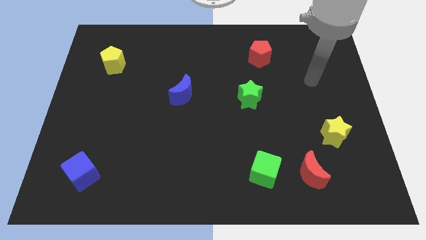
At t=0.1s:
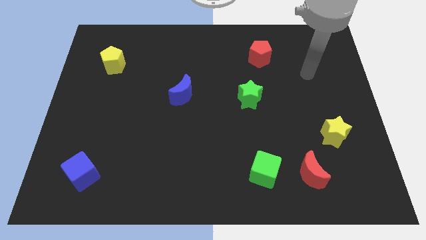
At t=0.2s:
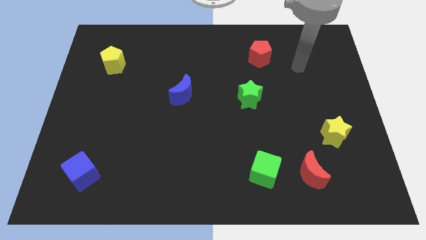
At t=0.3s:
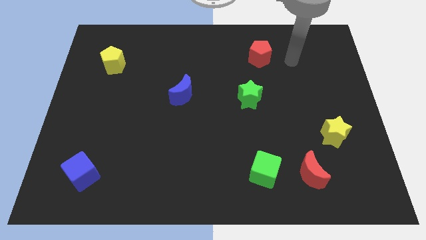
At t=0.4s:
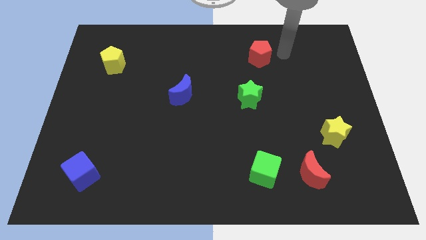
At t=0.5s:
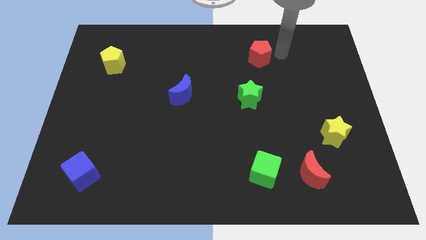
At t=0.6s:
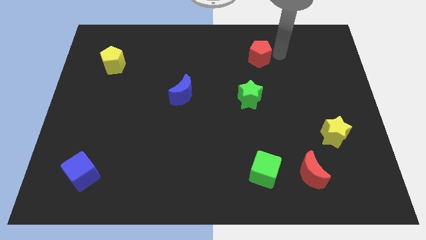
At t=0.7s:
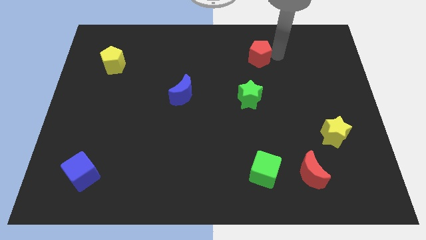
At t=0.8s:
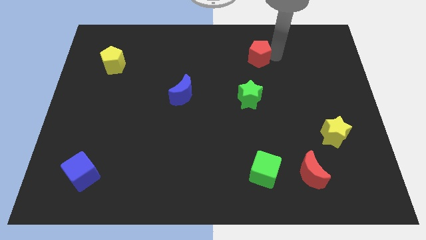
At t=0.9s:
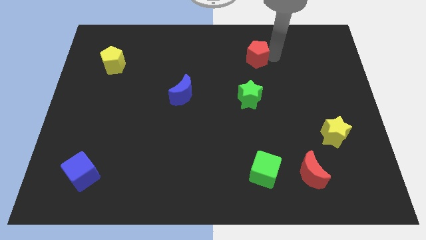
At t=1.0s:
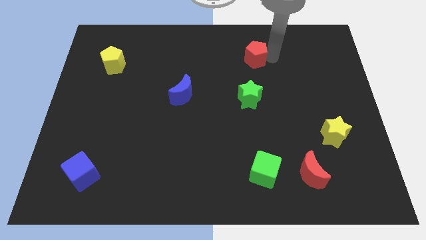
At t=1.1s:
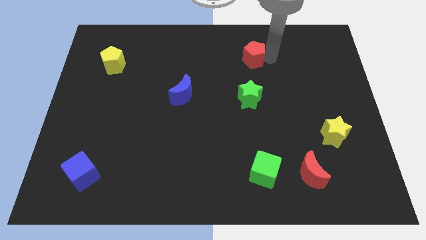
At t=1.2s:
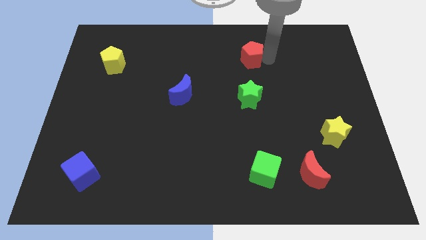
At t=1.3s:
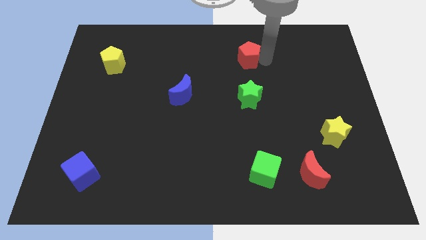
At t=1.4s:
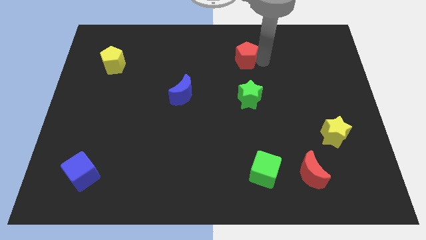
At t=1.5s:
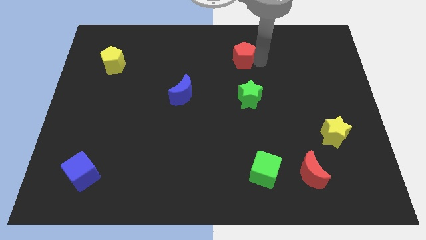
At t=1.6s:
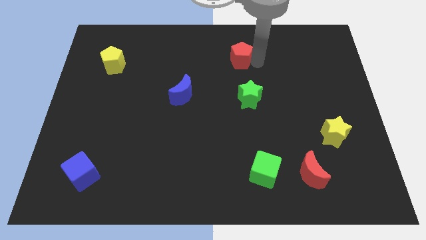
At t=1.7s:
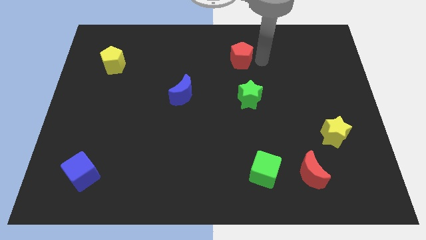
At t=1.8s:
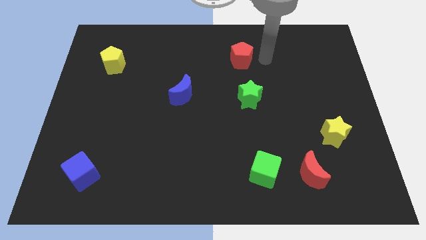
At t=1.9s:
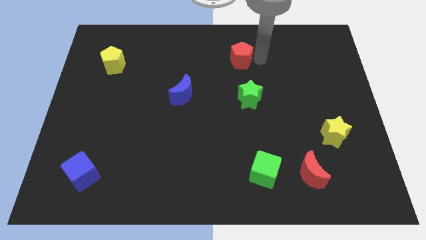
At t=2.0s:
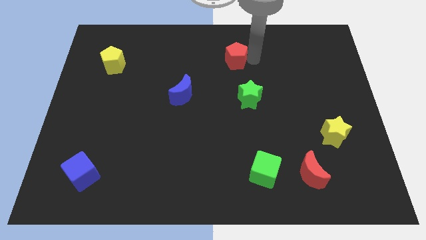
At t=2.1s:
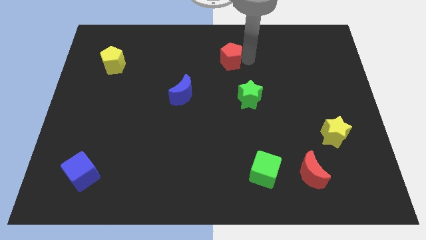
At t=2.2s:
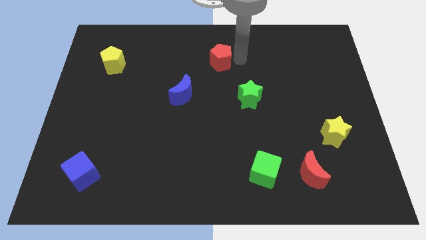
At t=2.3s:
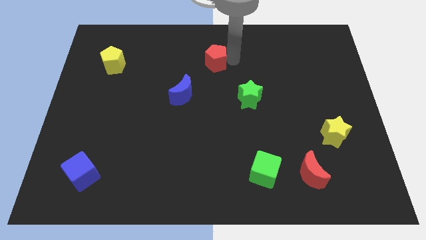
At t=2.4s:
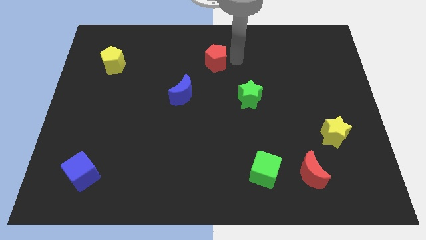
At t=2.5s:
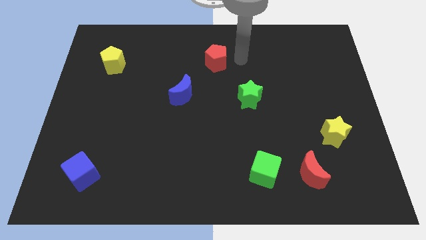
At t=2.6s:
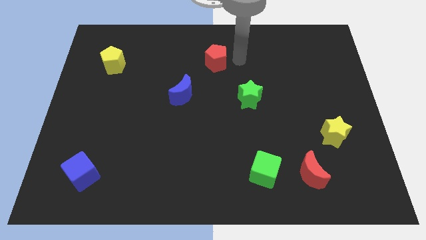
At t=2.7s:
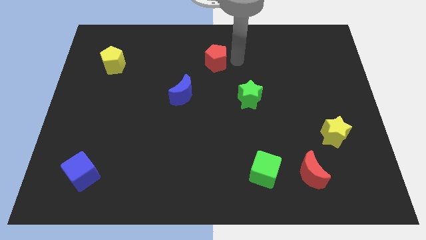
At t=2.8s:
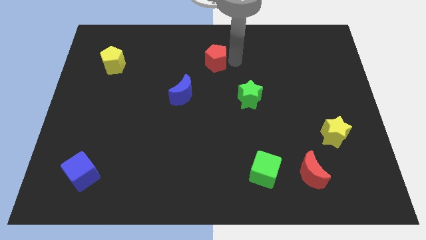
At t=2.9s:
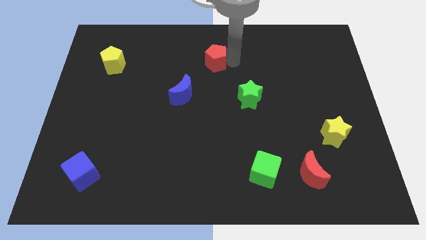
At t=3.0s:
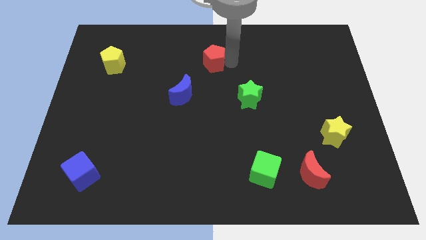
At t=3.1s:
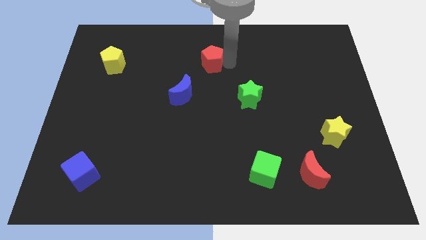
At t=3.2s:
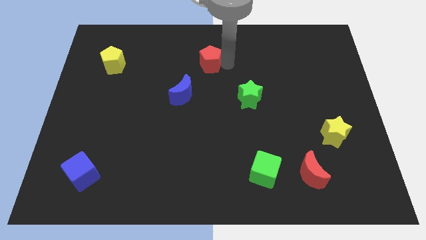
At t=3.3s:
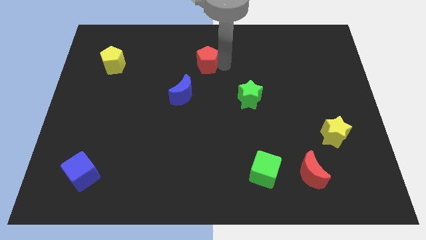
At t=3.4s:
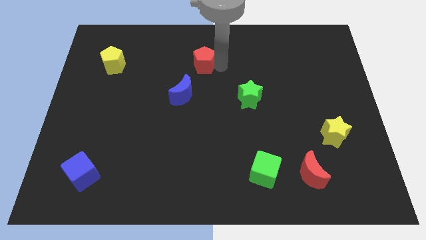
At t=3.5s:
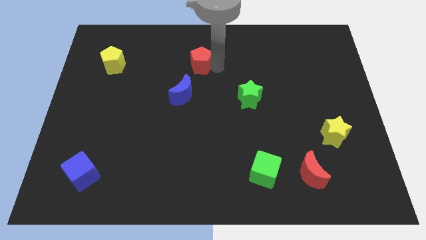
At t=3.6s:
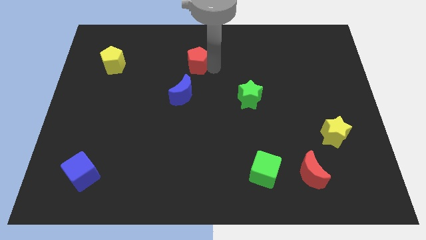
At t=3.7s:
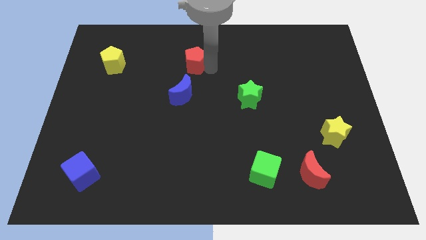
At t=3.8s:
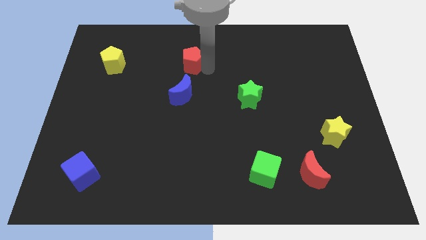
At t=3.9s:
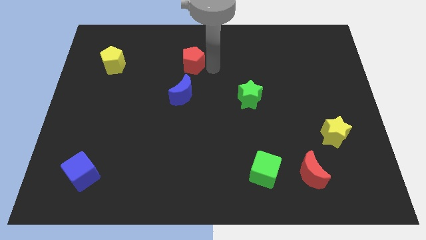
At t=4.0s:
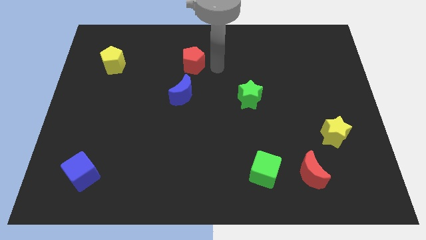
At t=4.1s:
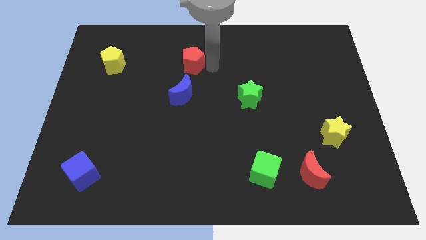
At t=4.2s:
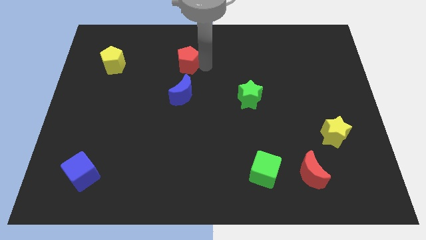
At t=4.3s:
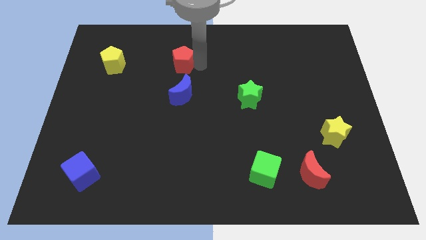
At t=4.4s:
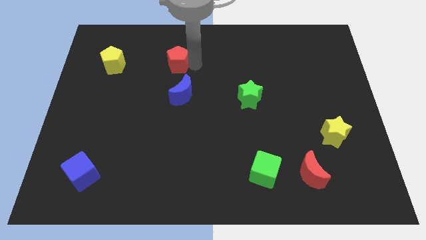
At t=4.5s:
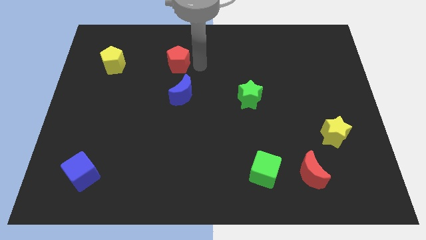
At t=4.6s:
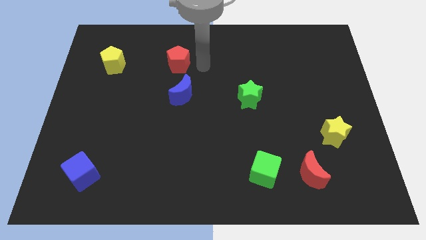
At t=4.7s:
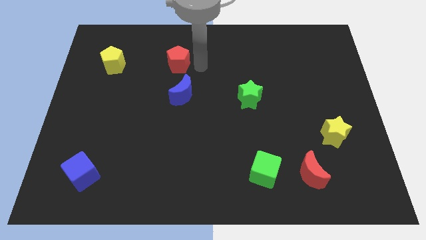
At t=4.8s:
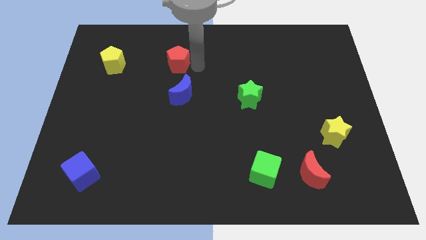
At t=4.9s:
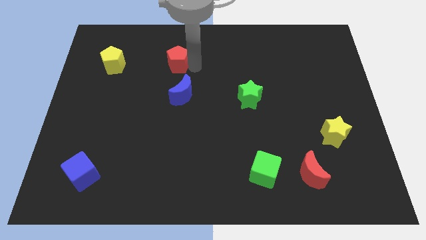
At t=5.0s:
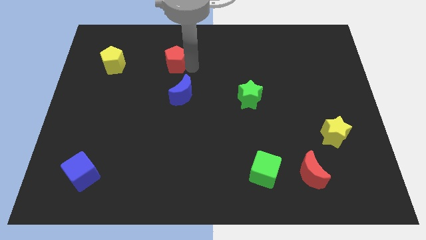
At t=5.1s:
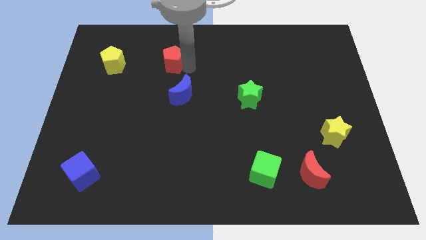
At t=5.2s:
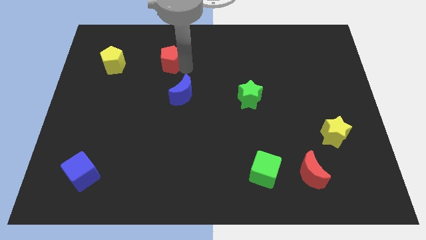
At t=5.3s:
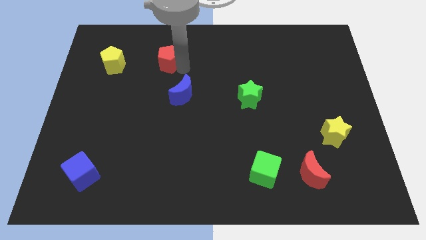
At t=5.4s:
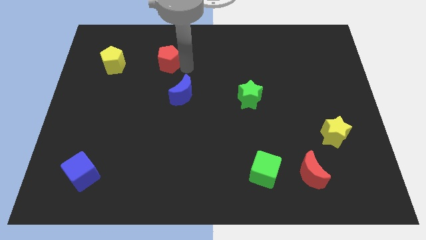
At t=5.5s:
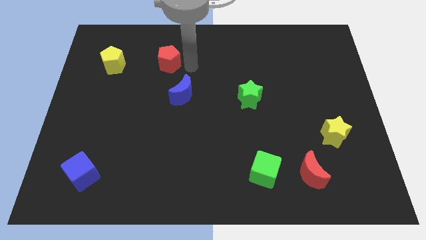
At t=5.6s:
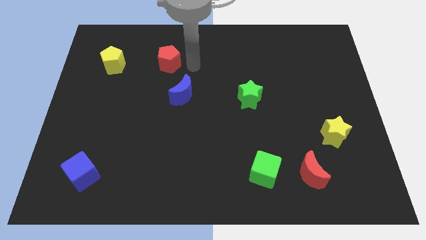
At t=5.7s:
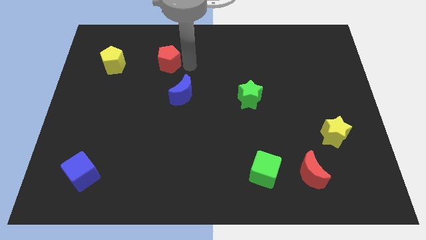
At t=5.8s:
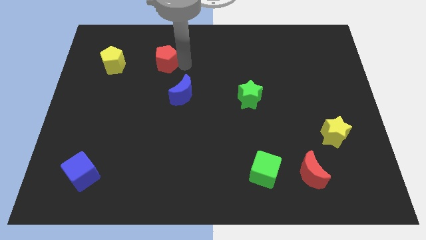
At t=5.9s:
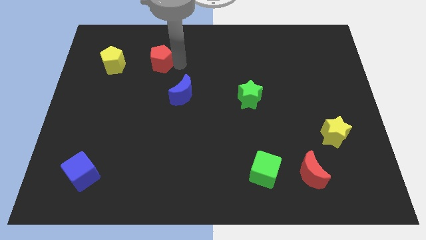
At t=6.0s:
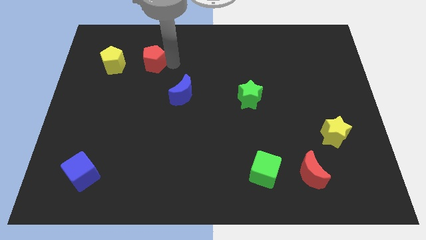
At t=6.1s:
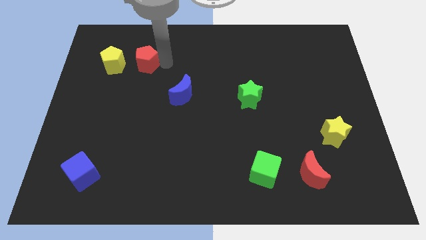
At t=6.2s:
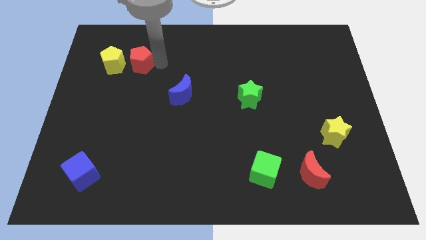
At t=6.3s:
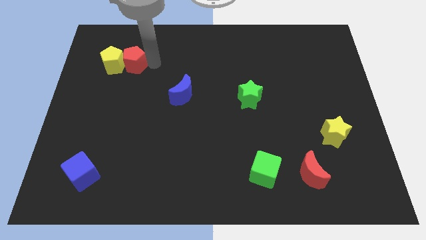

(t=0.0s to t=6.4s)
push the red pentagon next to the yellow pentagon

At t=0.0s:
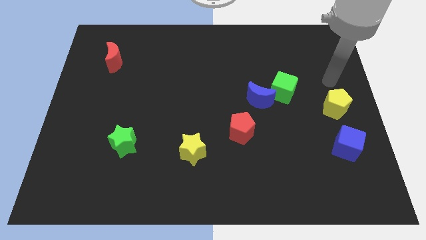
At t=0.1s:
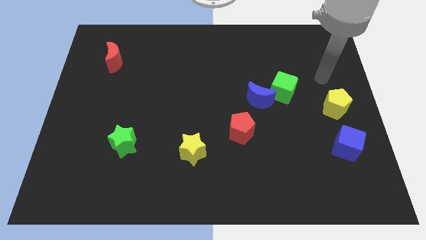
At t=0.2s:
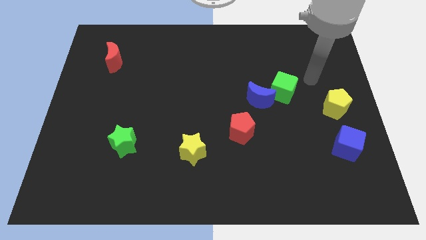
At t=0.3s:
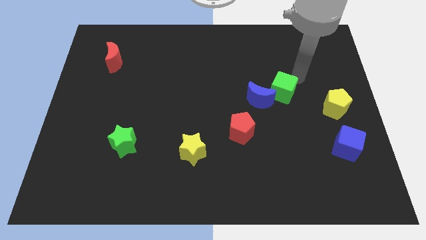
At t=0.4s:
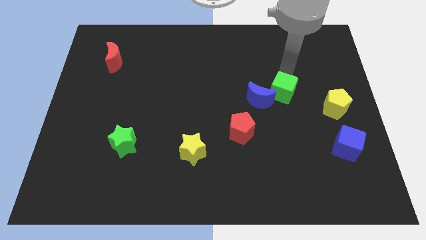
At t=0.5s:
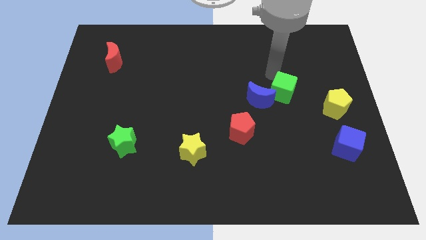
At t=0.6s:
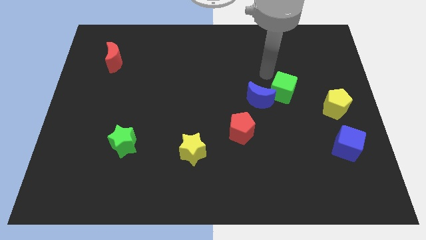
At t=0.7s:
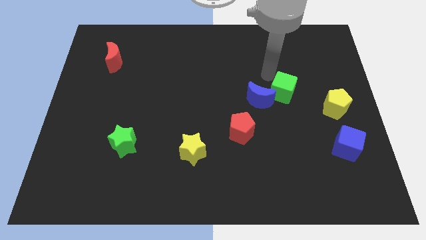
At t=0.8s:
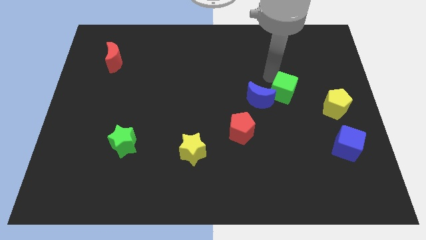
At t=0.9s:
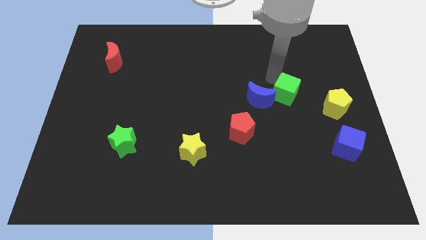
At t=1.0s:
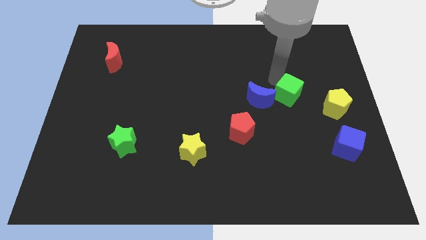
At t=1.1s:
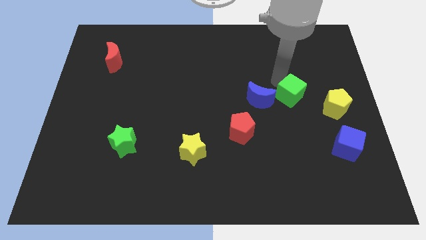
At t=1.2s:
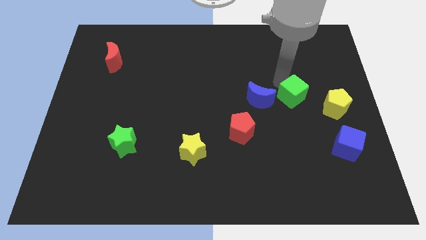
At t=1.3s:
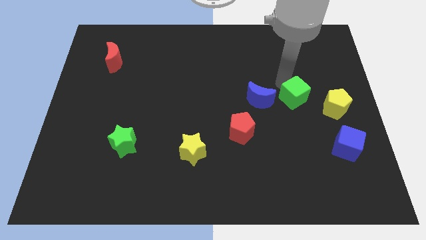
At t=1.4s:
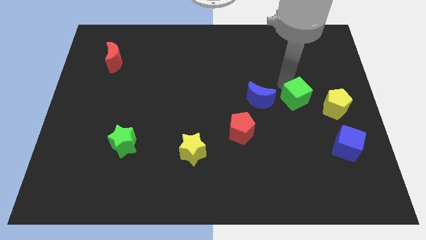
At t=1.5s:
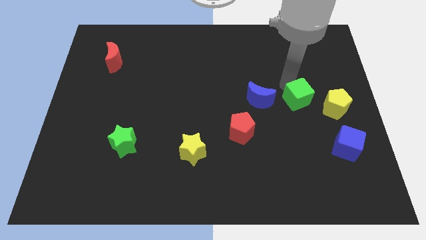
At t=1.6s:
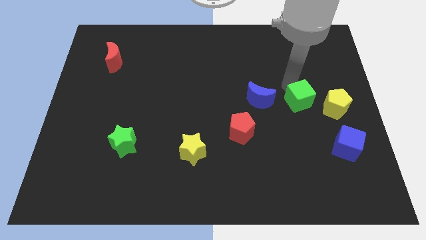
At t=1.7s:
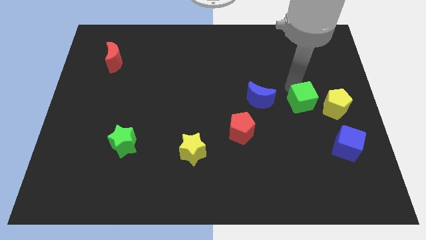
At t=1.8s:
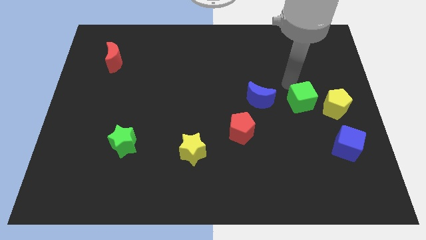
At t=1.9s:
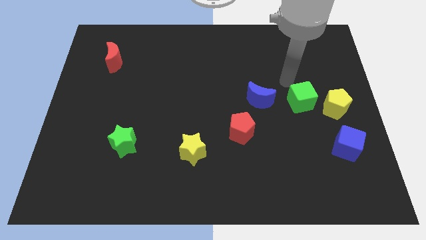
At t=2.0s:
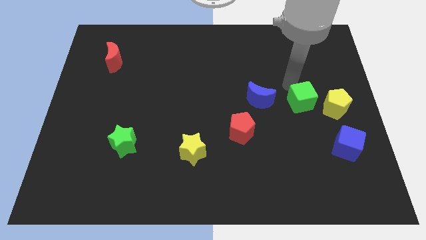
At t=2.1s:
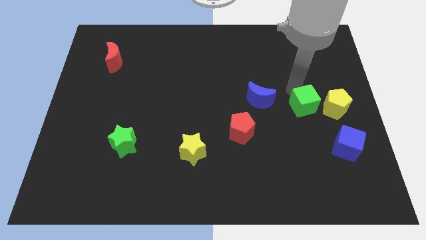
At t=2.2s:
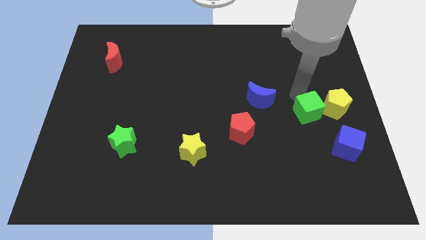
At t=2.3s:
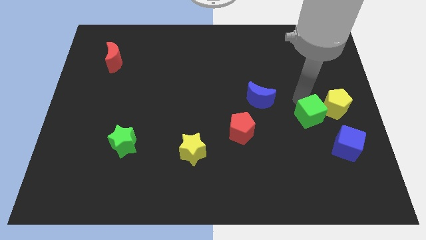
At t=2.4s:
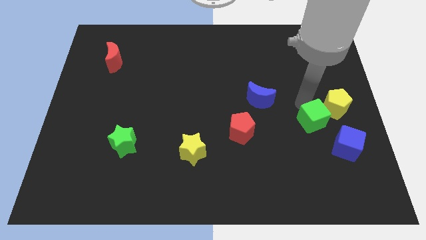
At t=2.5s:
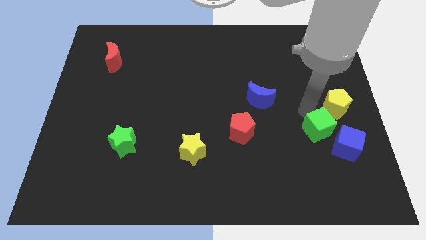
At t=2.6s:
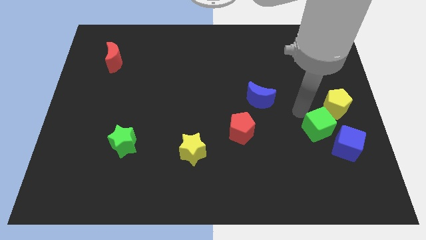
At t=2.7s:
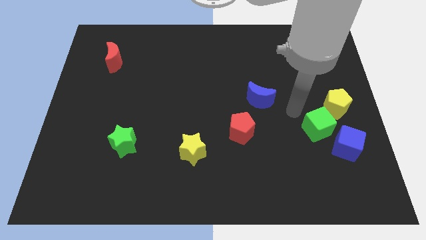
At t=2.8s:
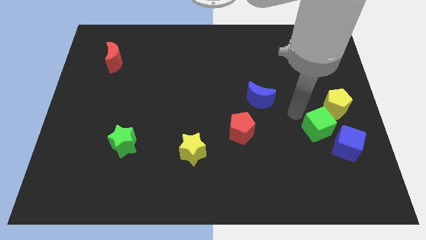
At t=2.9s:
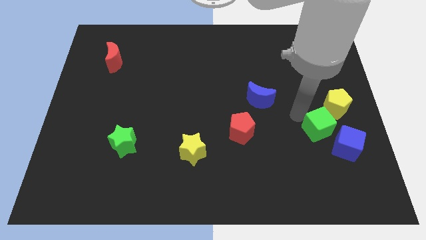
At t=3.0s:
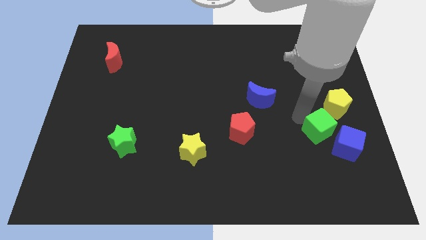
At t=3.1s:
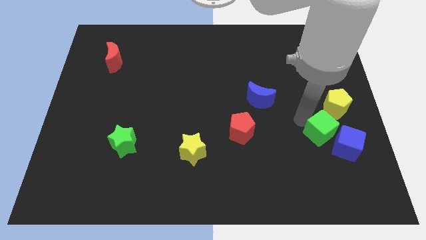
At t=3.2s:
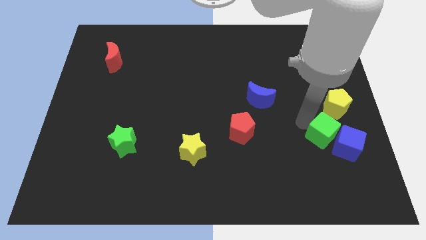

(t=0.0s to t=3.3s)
put the green cube close to the blue cube
